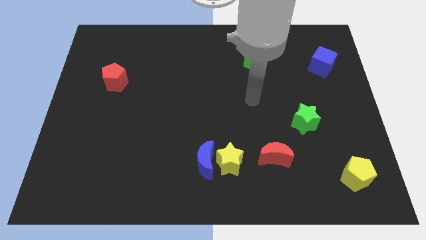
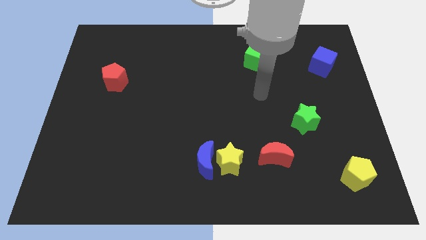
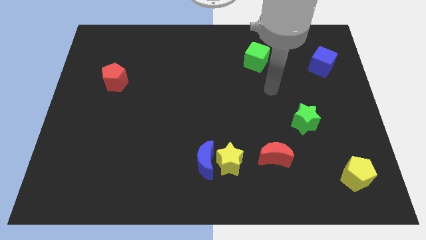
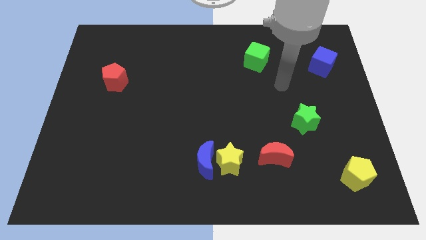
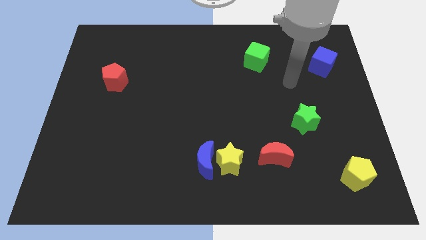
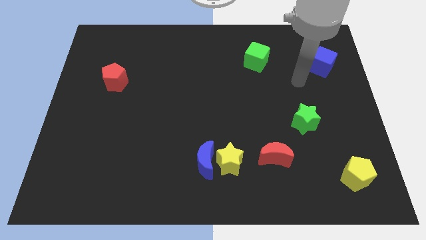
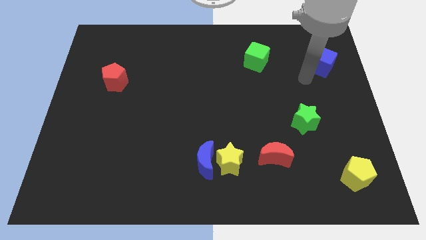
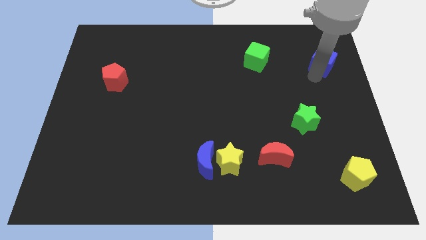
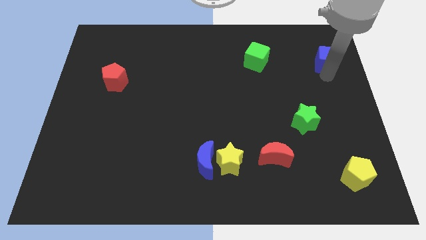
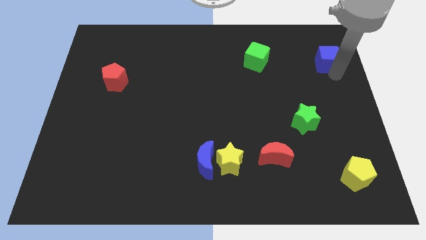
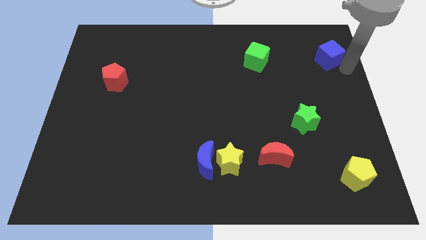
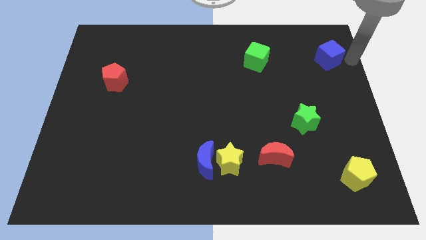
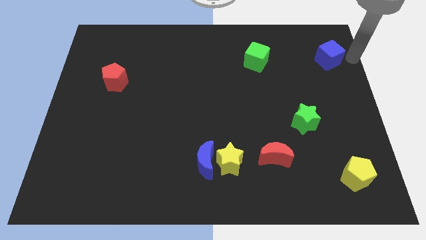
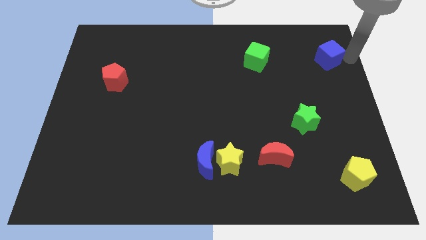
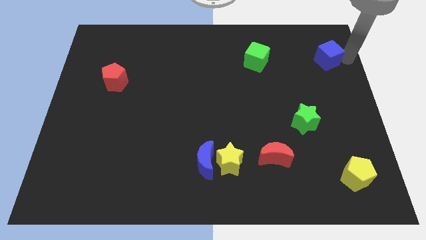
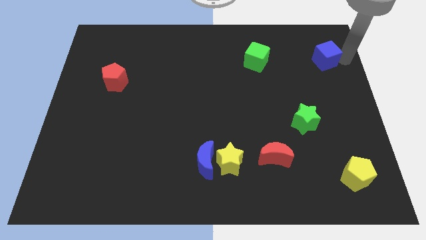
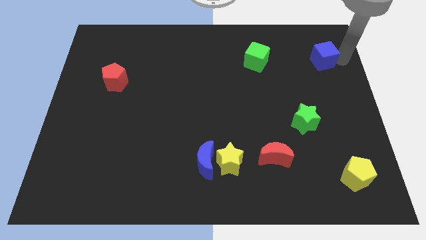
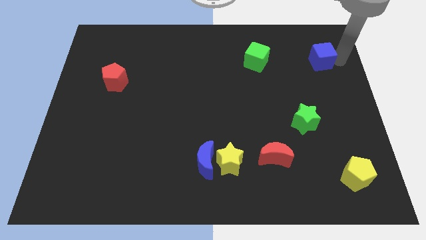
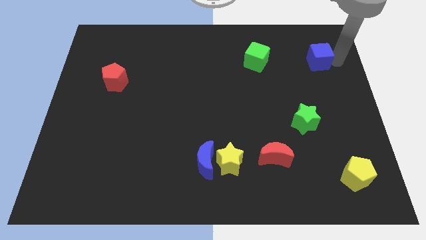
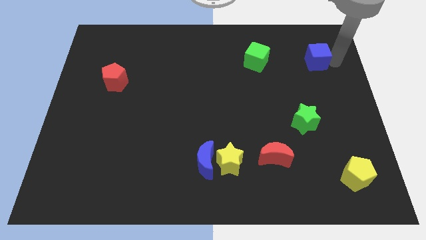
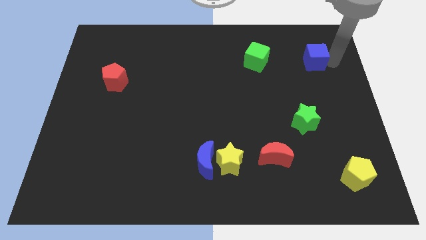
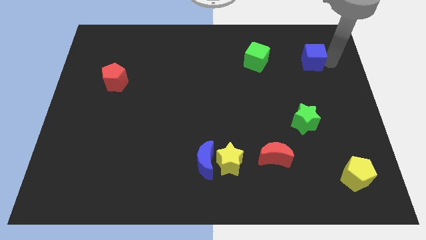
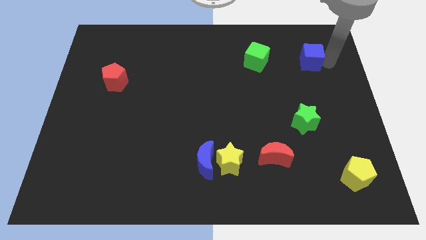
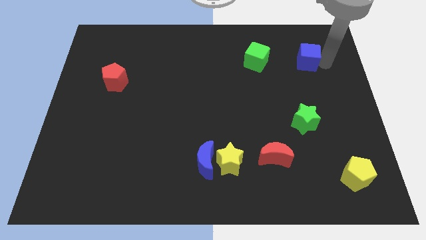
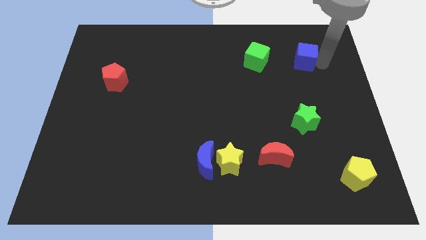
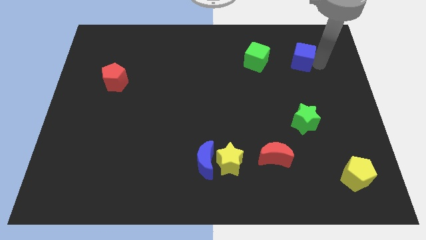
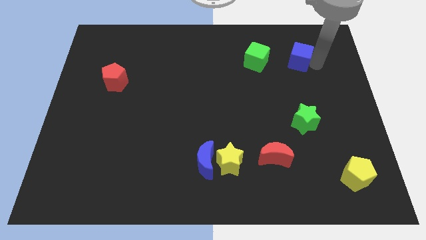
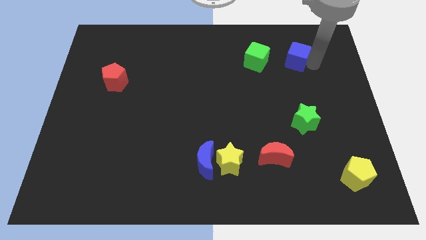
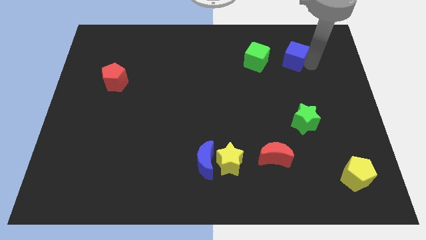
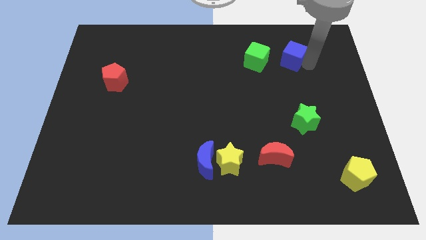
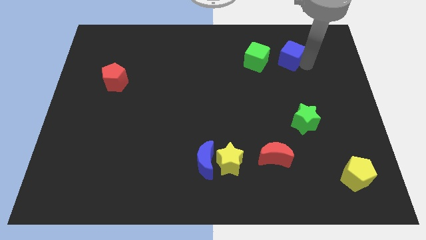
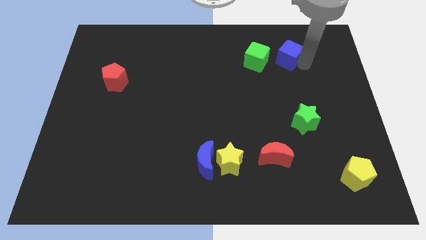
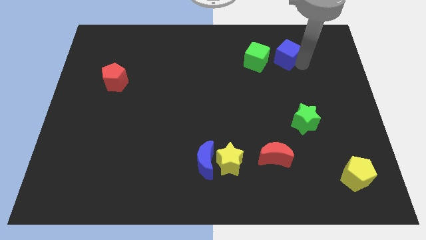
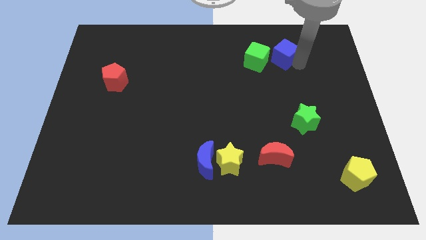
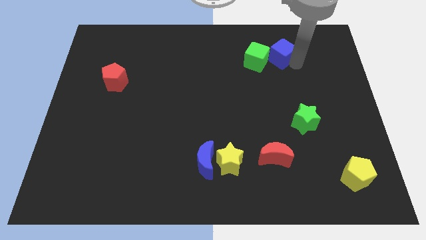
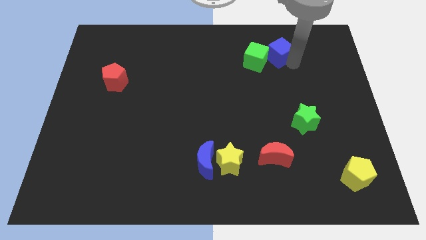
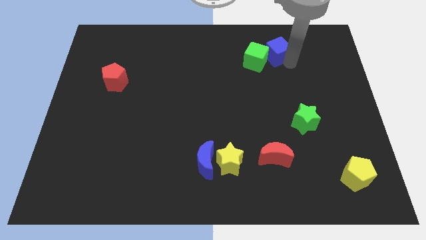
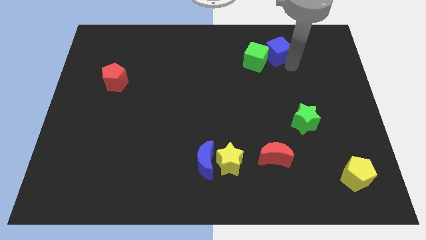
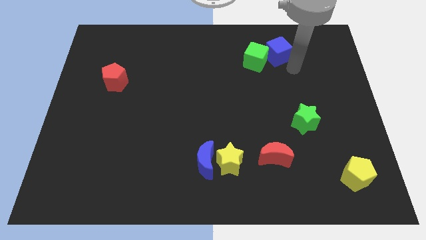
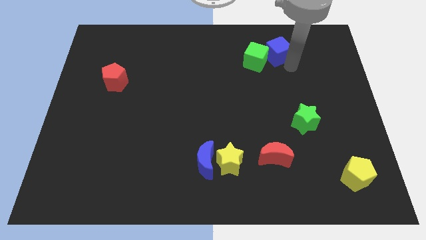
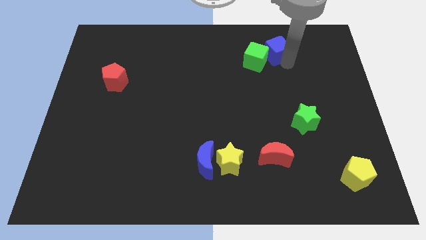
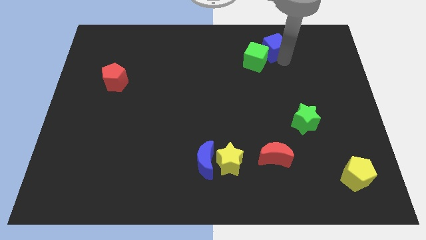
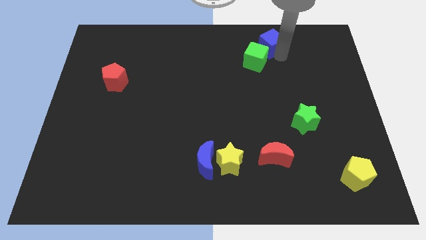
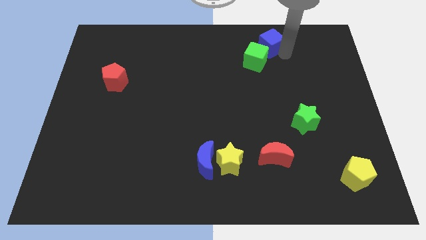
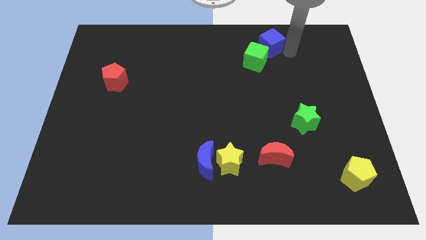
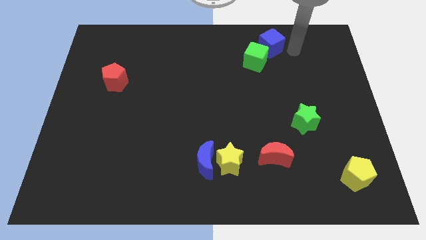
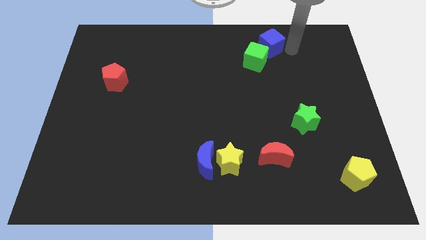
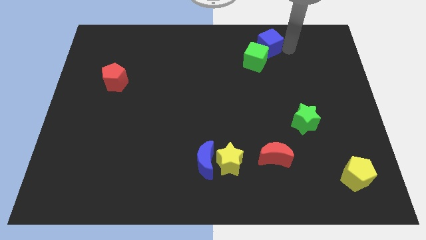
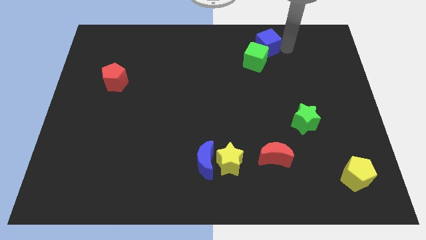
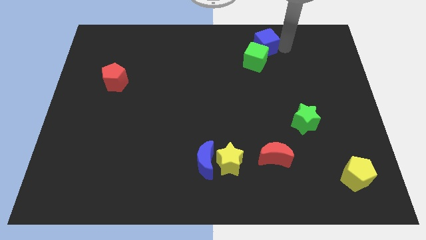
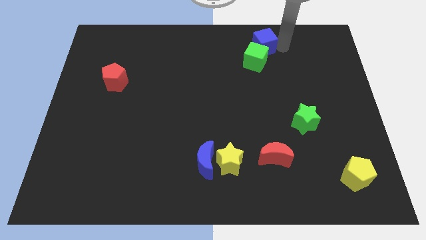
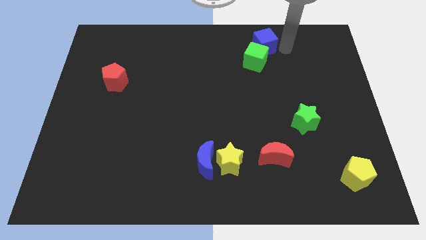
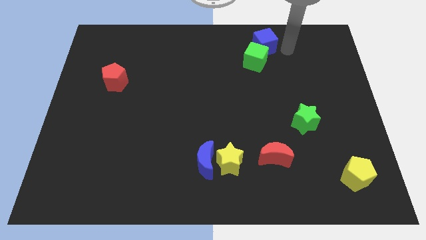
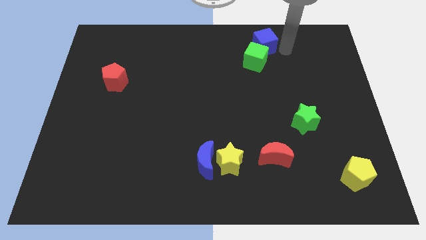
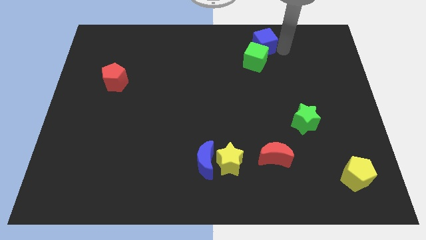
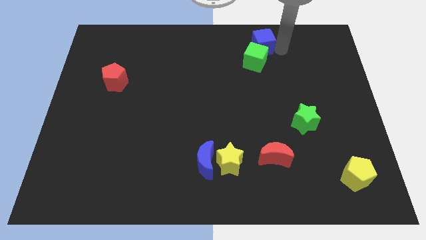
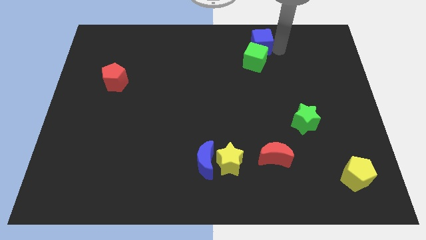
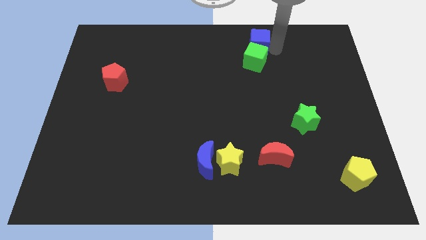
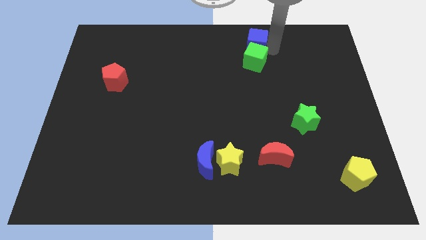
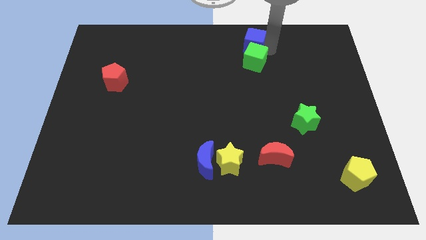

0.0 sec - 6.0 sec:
put the blue cube to the towards your base
